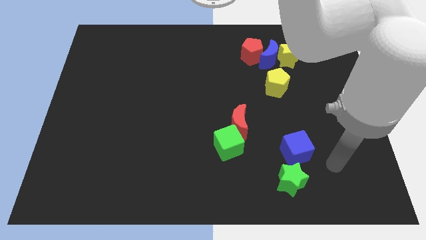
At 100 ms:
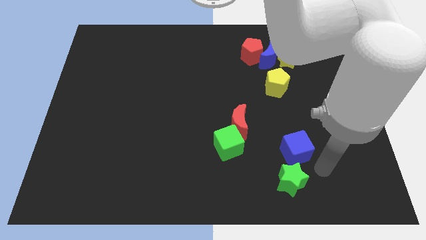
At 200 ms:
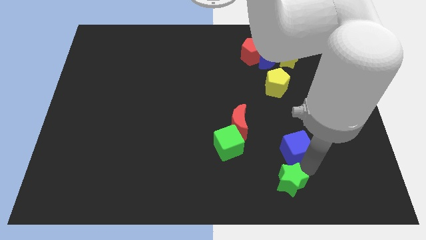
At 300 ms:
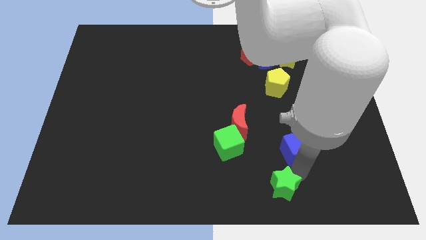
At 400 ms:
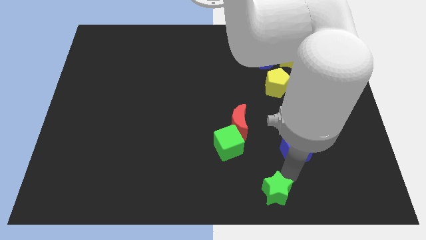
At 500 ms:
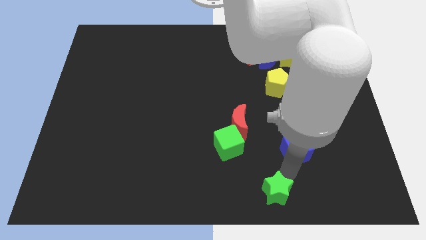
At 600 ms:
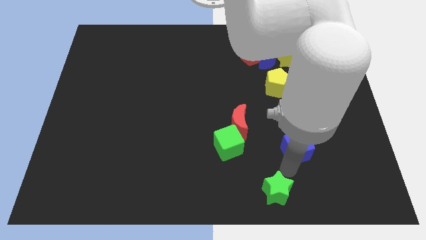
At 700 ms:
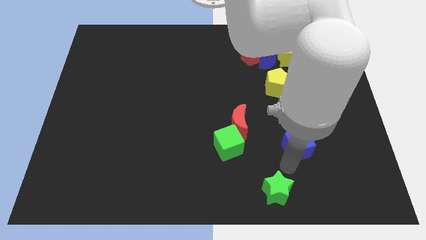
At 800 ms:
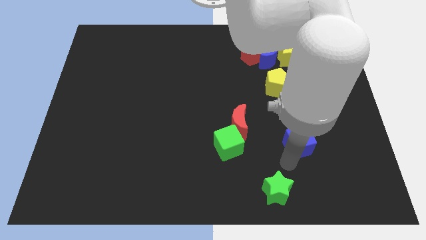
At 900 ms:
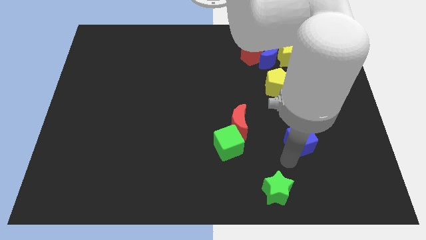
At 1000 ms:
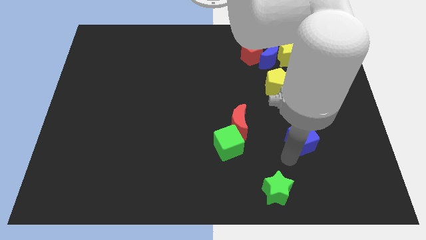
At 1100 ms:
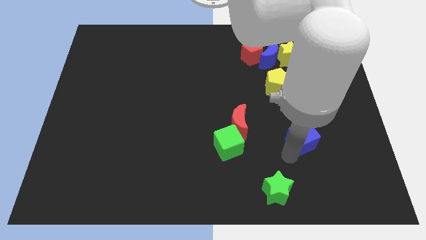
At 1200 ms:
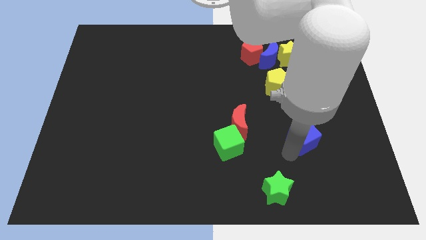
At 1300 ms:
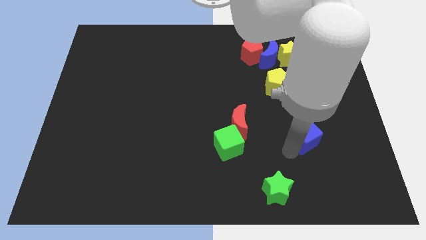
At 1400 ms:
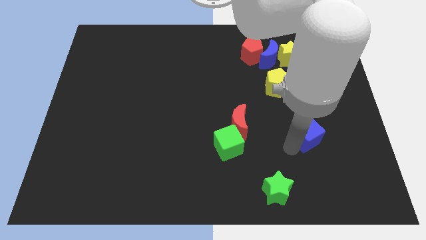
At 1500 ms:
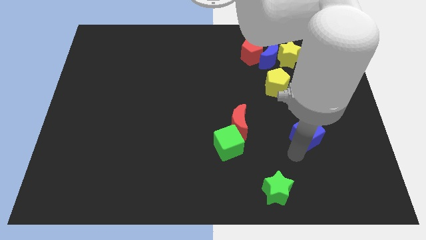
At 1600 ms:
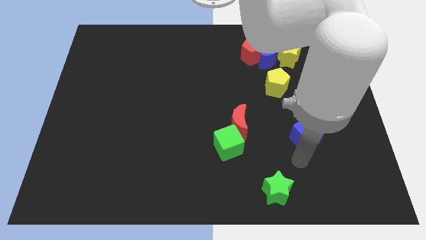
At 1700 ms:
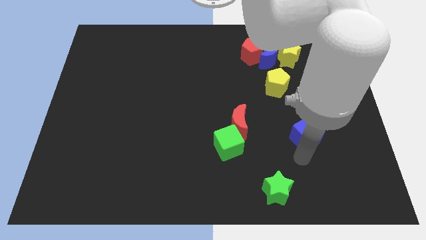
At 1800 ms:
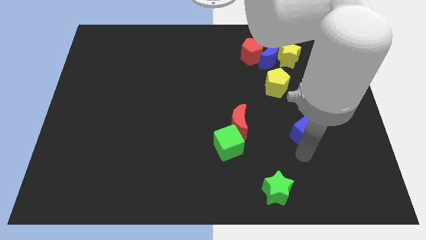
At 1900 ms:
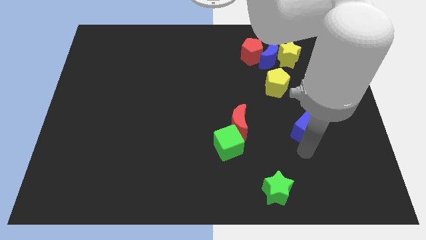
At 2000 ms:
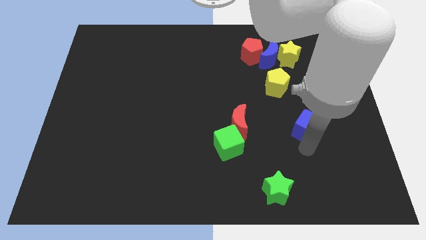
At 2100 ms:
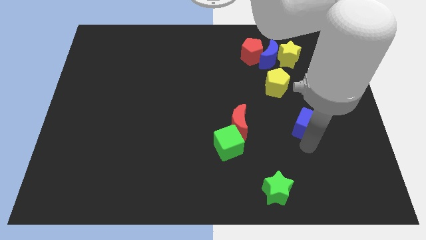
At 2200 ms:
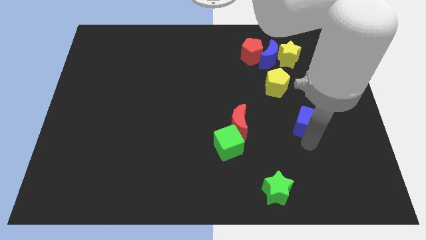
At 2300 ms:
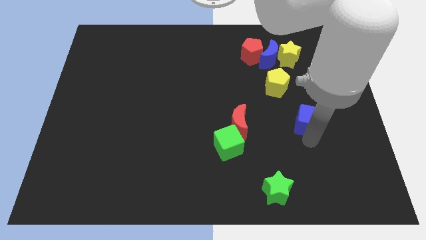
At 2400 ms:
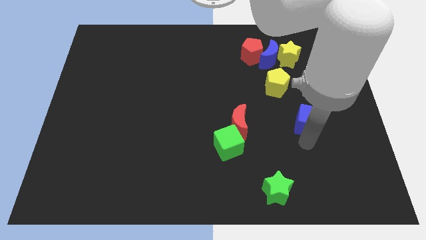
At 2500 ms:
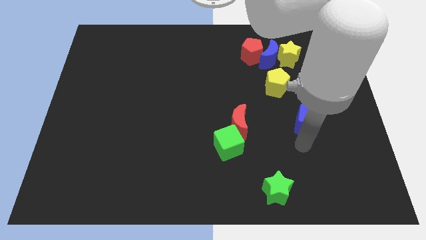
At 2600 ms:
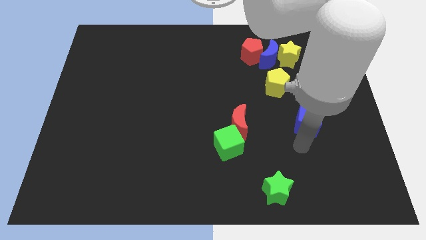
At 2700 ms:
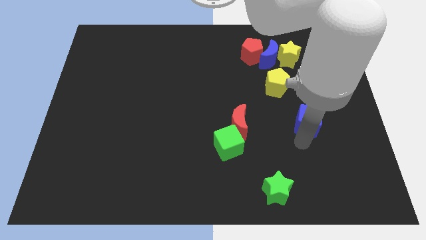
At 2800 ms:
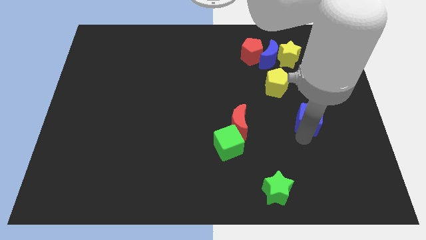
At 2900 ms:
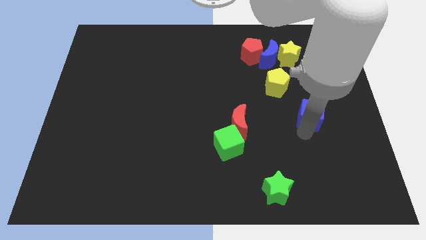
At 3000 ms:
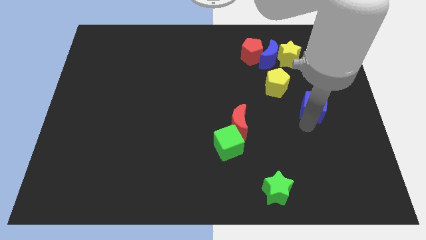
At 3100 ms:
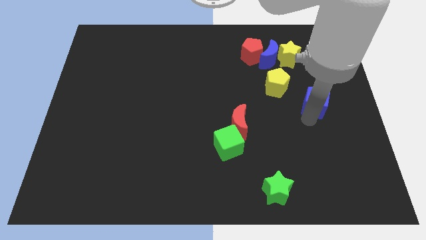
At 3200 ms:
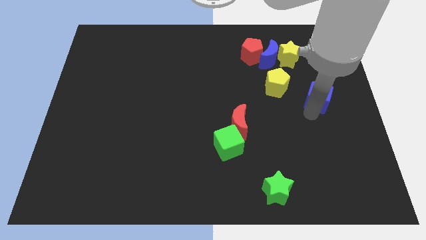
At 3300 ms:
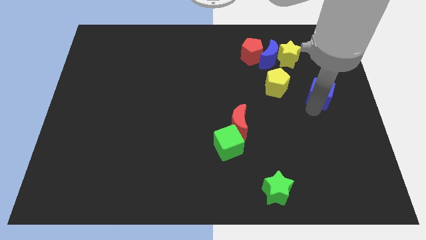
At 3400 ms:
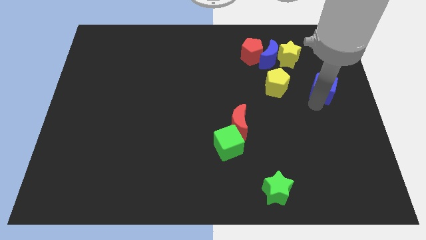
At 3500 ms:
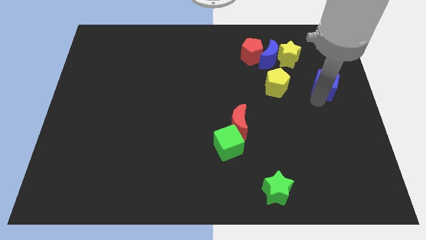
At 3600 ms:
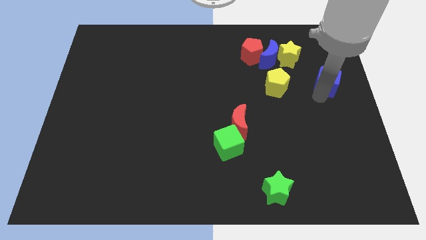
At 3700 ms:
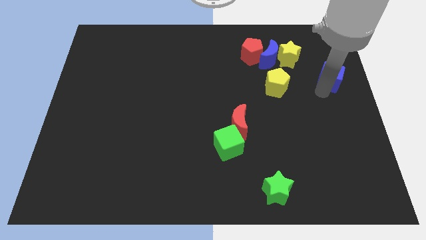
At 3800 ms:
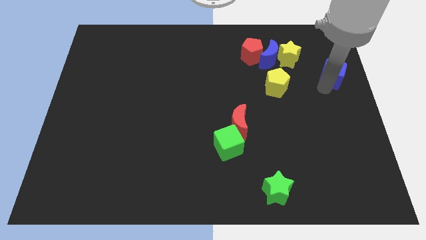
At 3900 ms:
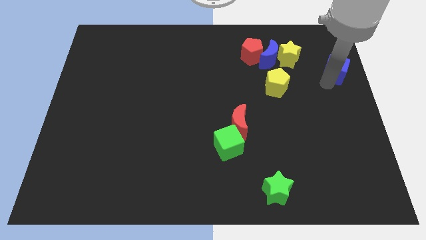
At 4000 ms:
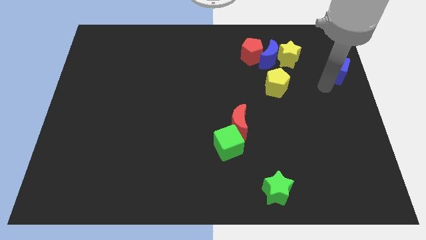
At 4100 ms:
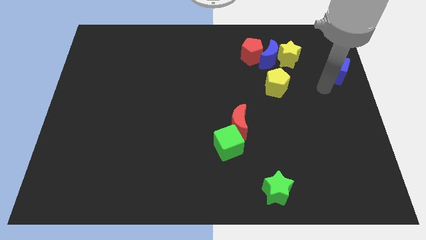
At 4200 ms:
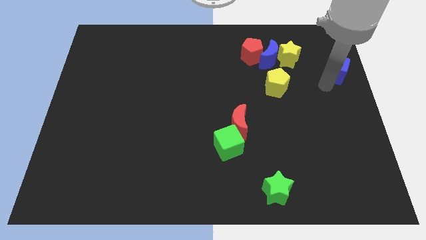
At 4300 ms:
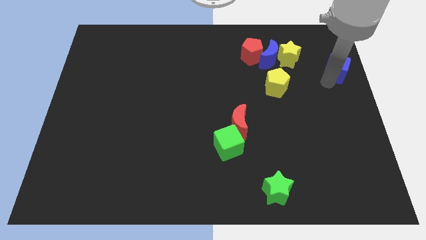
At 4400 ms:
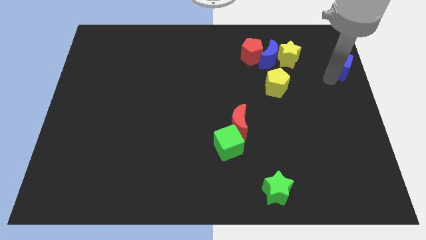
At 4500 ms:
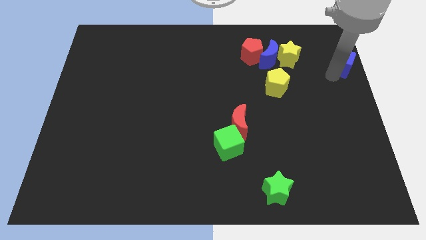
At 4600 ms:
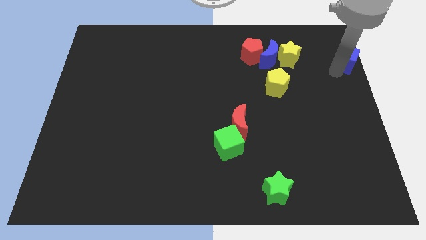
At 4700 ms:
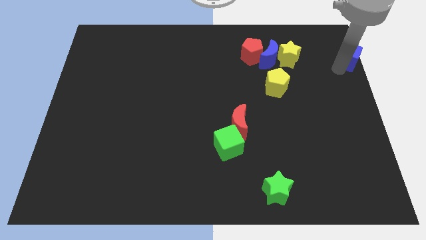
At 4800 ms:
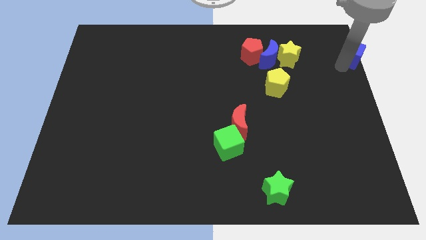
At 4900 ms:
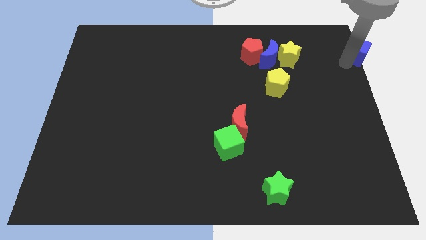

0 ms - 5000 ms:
put the blue cube to the top right

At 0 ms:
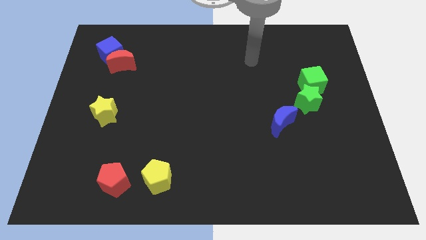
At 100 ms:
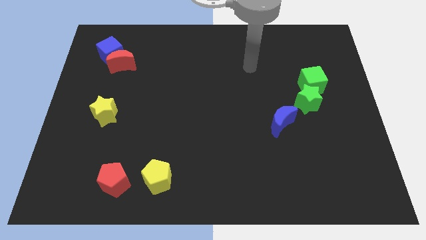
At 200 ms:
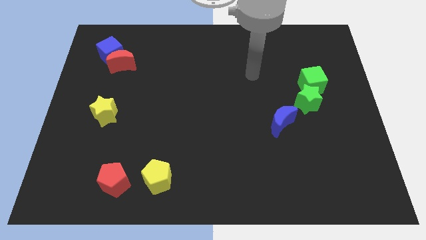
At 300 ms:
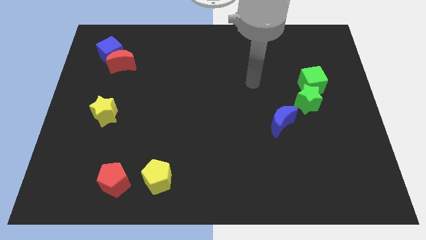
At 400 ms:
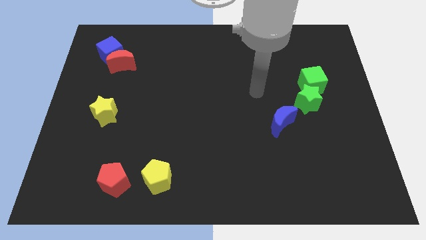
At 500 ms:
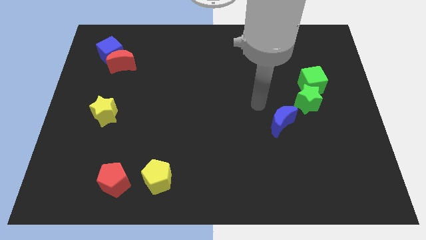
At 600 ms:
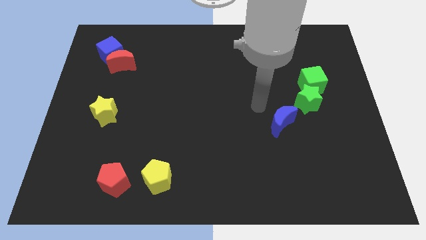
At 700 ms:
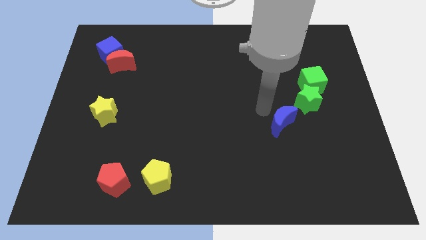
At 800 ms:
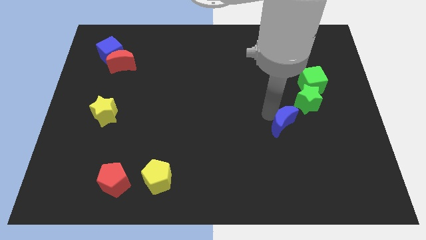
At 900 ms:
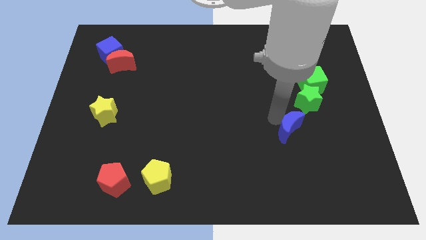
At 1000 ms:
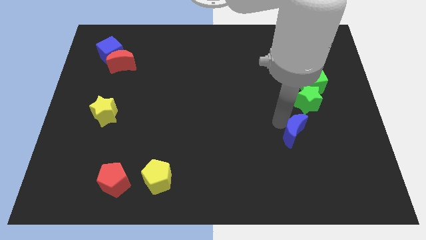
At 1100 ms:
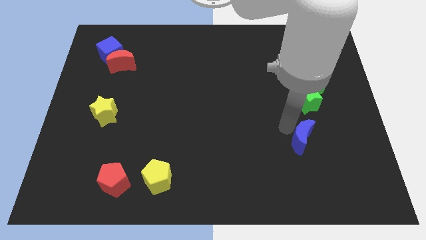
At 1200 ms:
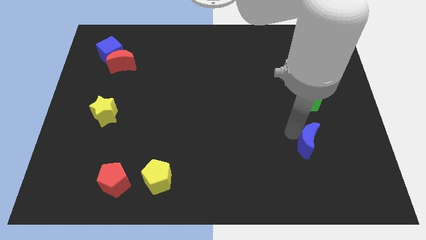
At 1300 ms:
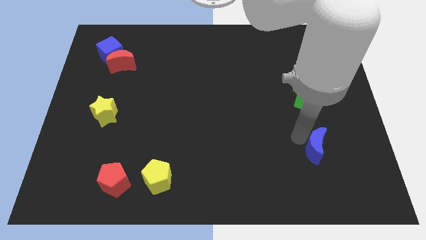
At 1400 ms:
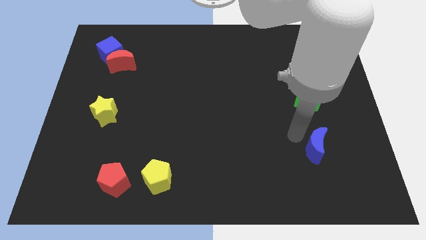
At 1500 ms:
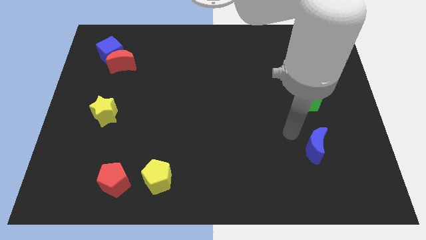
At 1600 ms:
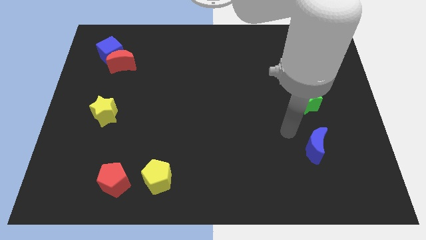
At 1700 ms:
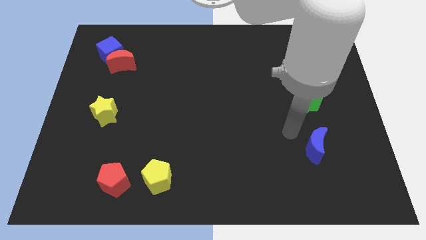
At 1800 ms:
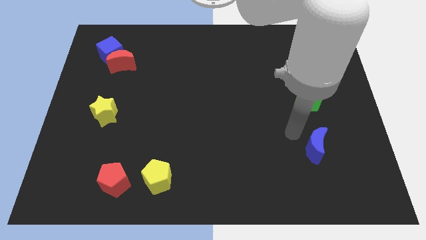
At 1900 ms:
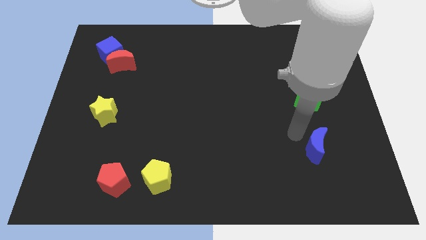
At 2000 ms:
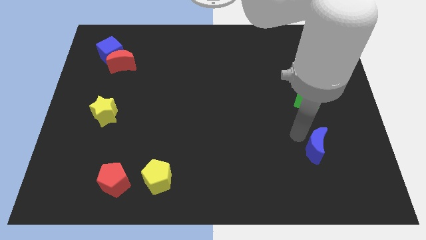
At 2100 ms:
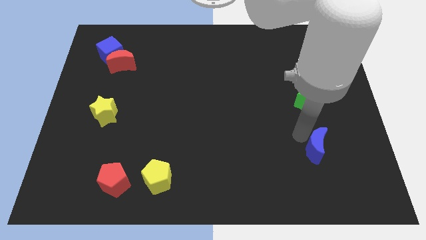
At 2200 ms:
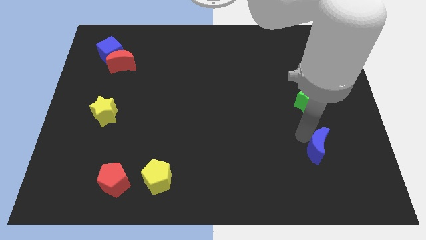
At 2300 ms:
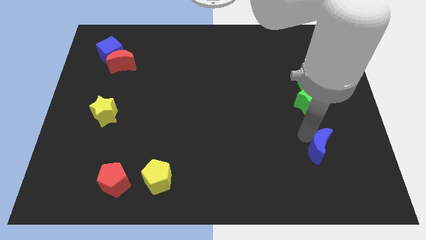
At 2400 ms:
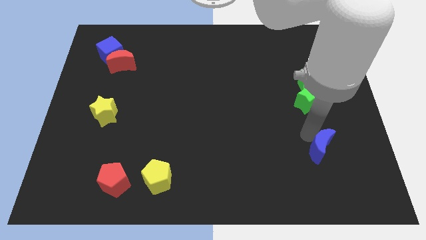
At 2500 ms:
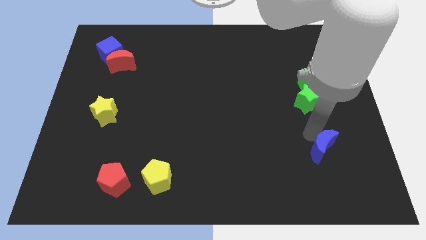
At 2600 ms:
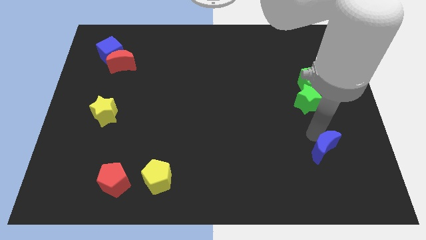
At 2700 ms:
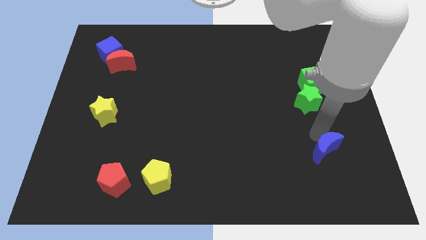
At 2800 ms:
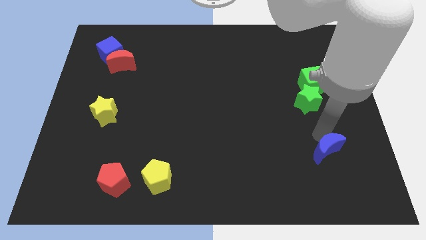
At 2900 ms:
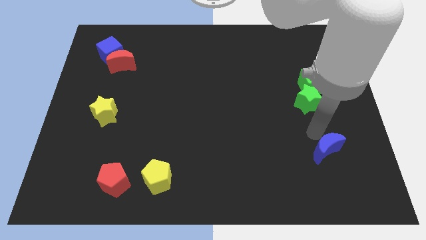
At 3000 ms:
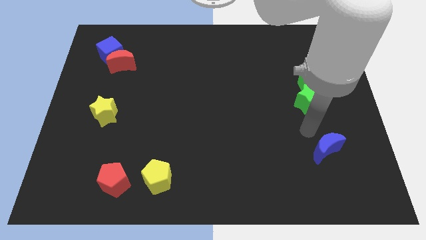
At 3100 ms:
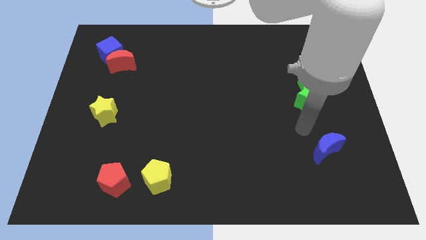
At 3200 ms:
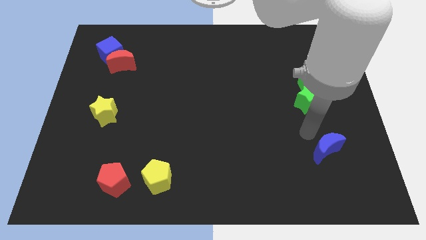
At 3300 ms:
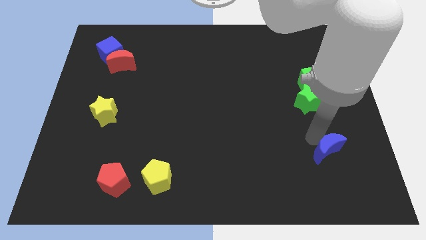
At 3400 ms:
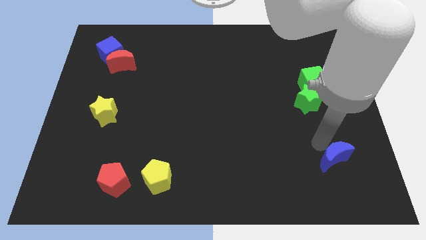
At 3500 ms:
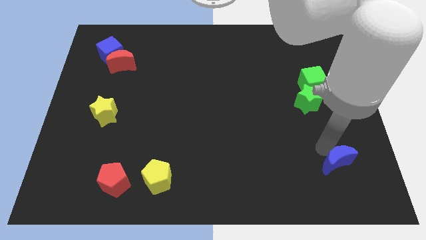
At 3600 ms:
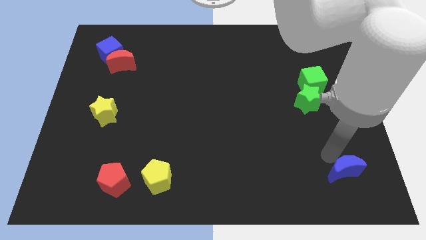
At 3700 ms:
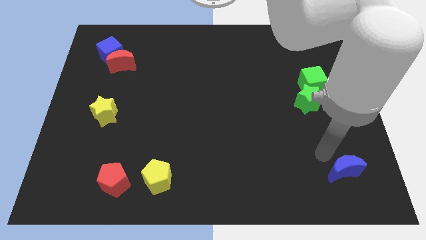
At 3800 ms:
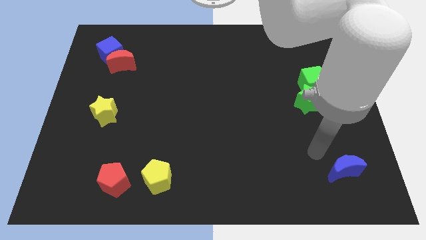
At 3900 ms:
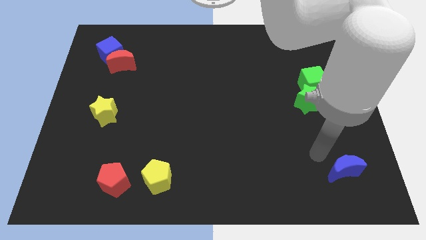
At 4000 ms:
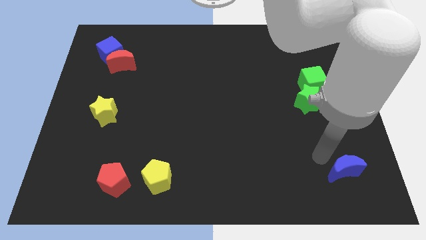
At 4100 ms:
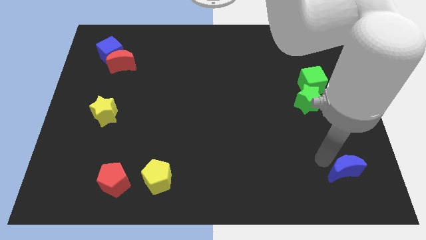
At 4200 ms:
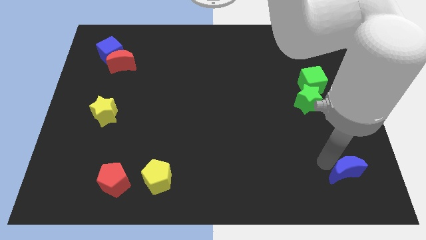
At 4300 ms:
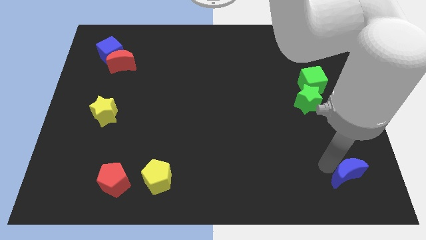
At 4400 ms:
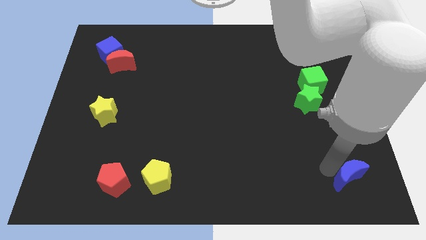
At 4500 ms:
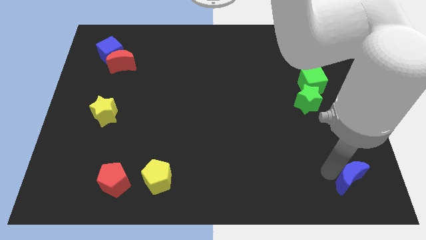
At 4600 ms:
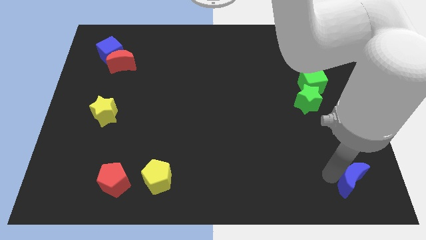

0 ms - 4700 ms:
push the blue moon to the bottom right corner
